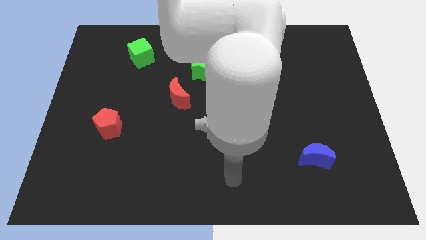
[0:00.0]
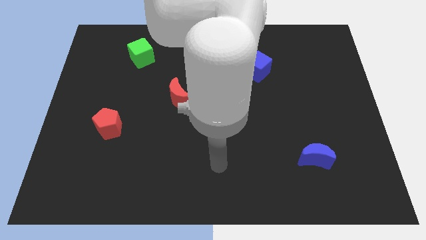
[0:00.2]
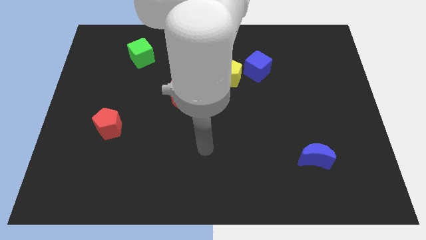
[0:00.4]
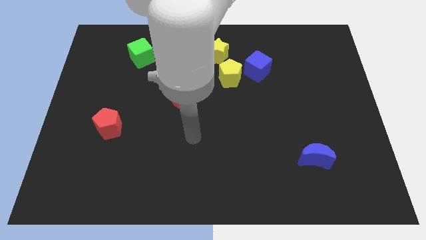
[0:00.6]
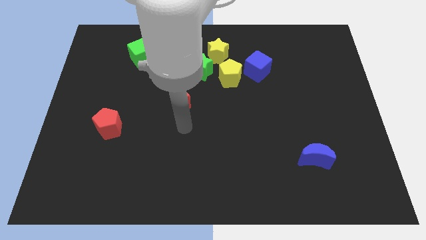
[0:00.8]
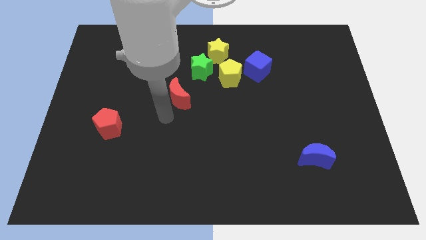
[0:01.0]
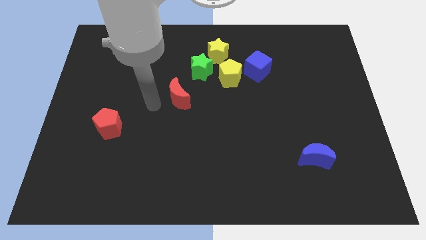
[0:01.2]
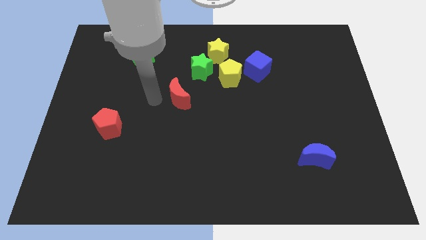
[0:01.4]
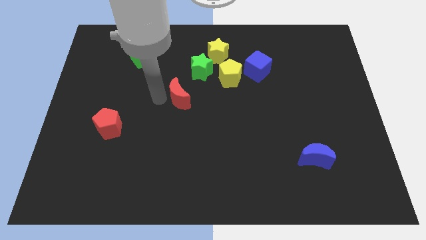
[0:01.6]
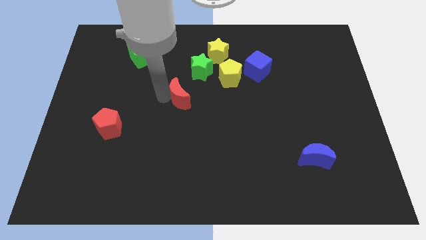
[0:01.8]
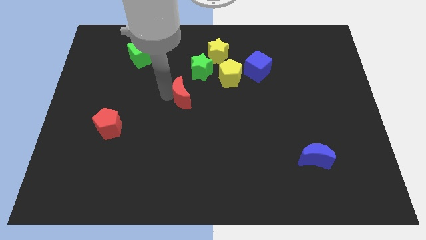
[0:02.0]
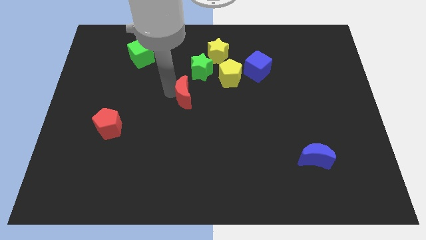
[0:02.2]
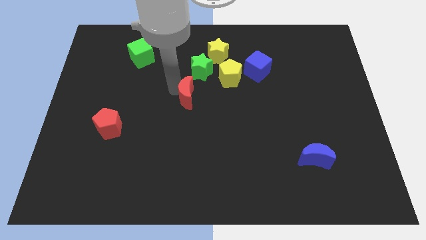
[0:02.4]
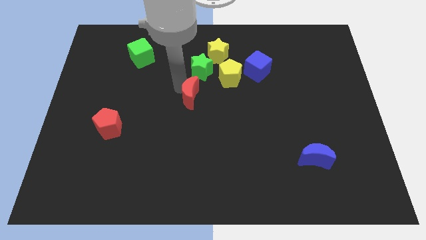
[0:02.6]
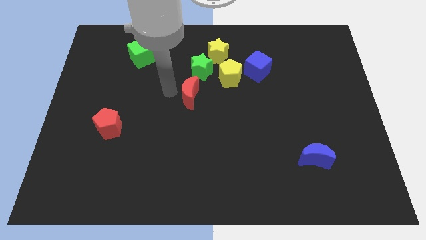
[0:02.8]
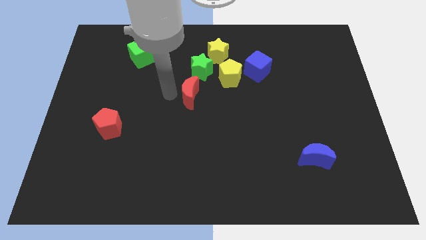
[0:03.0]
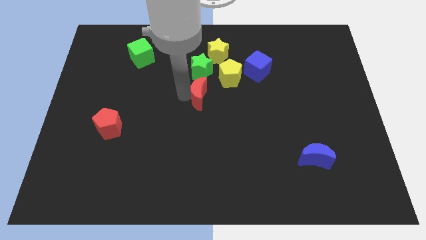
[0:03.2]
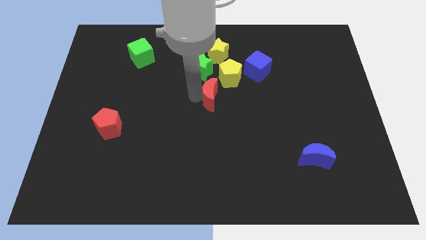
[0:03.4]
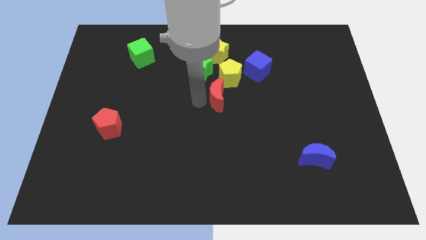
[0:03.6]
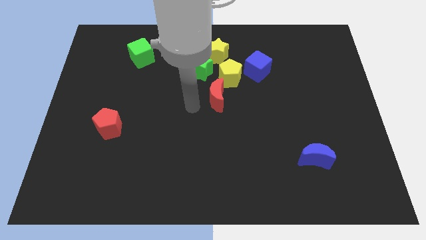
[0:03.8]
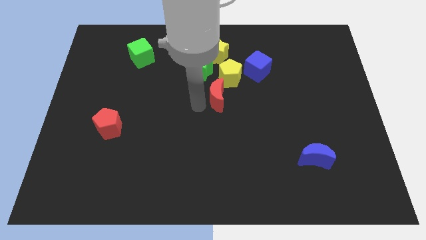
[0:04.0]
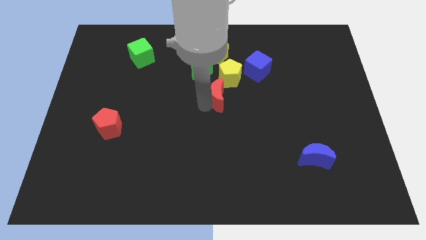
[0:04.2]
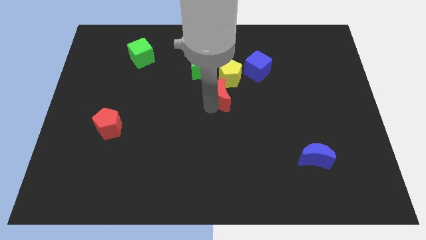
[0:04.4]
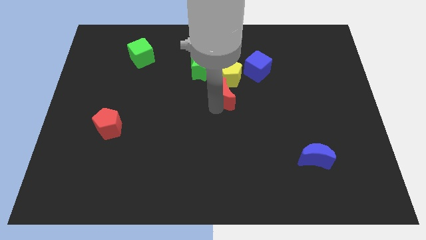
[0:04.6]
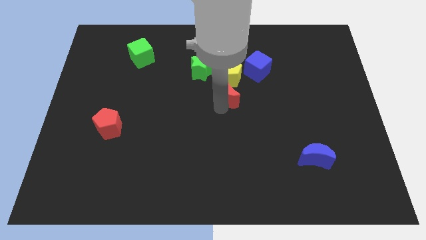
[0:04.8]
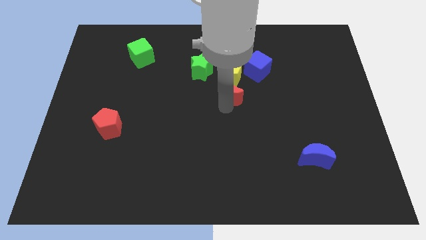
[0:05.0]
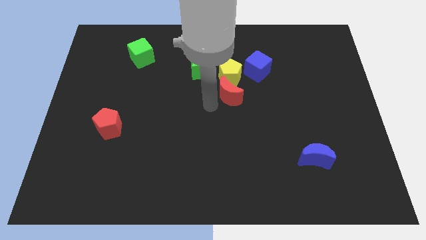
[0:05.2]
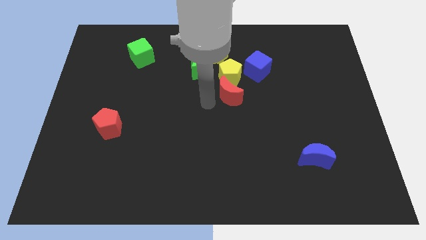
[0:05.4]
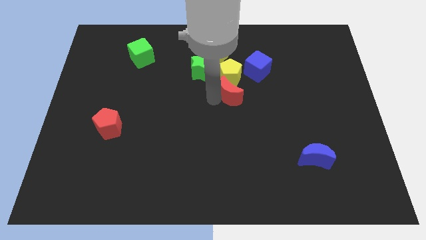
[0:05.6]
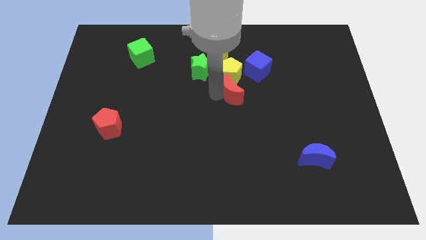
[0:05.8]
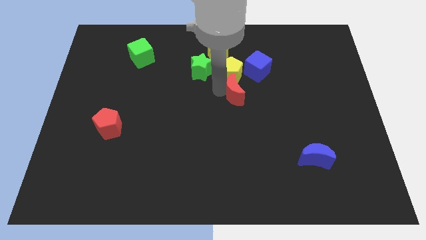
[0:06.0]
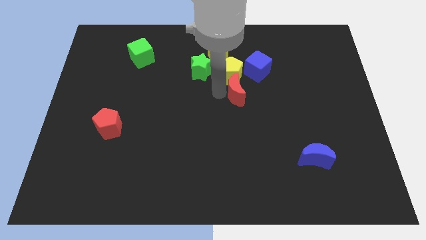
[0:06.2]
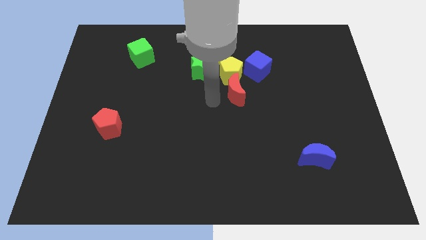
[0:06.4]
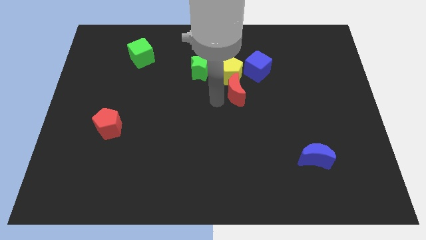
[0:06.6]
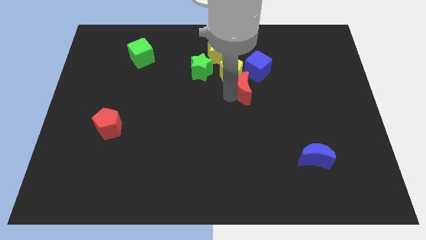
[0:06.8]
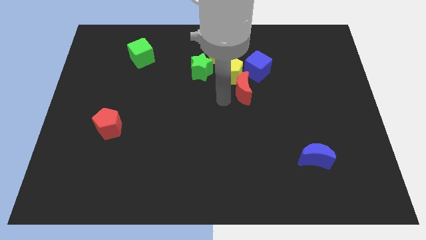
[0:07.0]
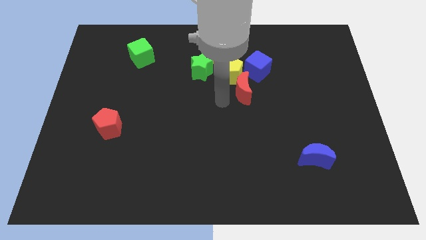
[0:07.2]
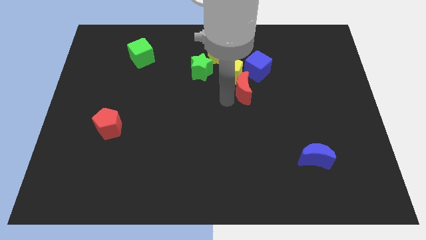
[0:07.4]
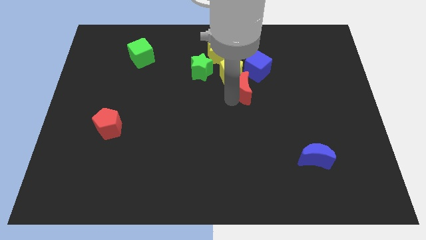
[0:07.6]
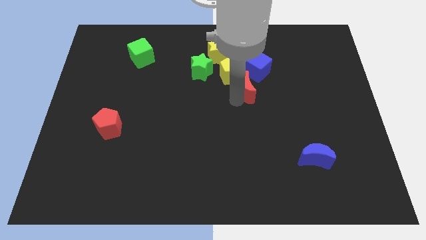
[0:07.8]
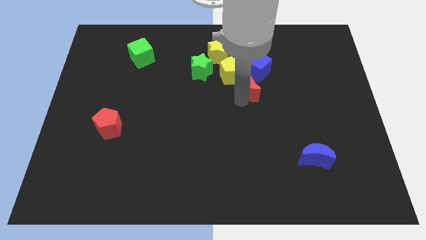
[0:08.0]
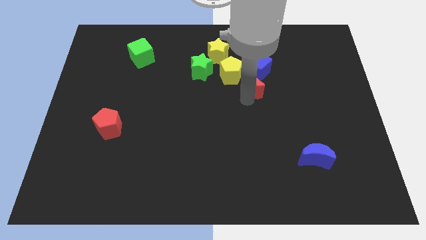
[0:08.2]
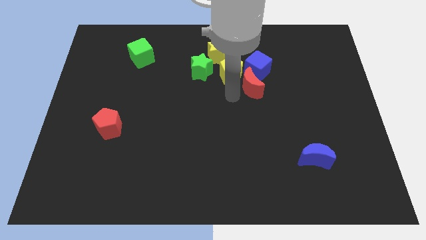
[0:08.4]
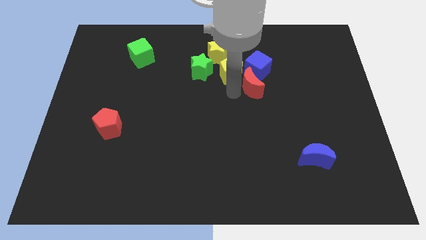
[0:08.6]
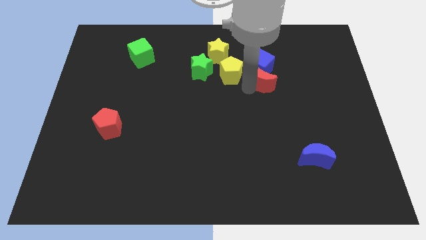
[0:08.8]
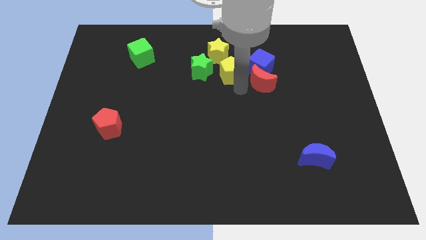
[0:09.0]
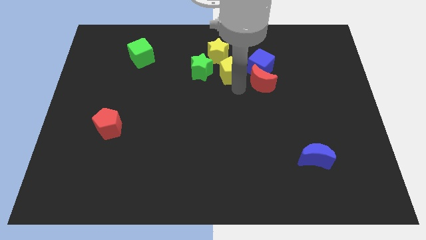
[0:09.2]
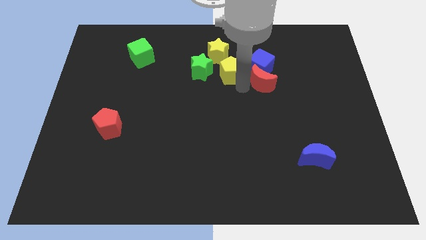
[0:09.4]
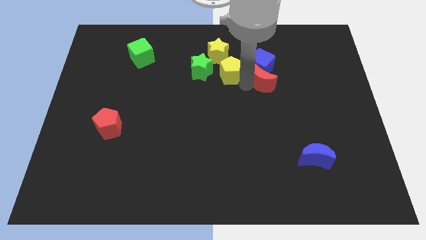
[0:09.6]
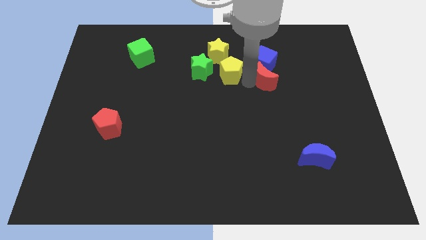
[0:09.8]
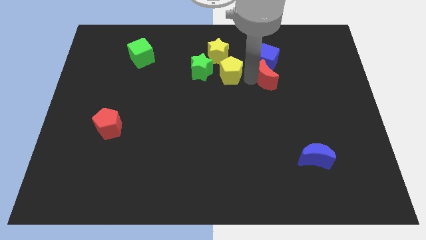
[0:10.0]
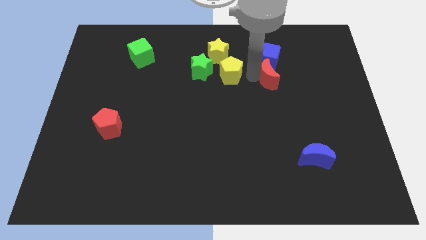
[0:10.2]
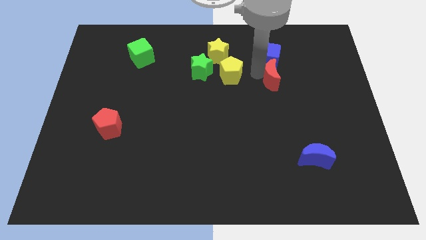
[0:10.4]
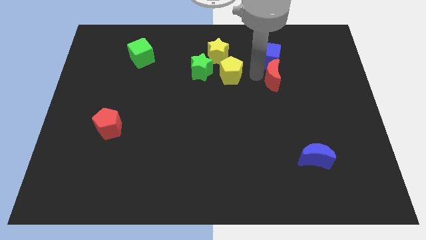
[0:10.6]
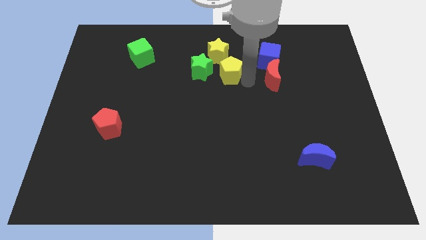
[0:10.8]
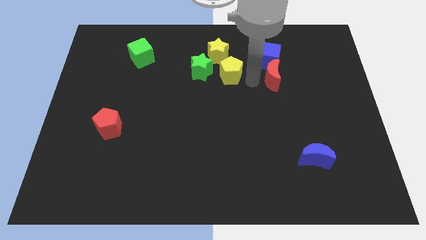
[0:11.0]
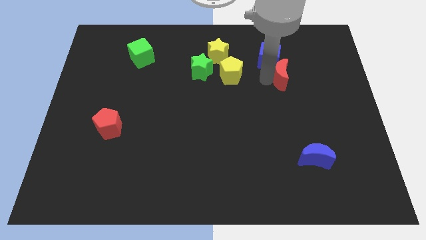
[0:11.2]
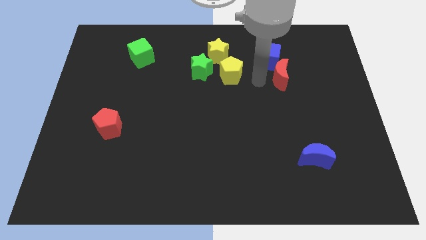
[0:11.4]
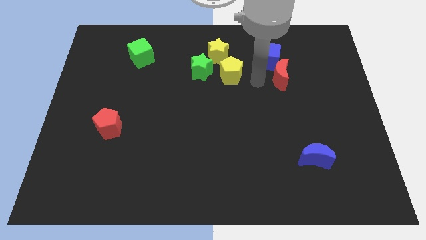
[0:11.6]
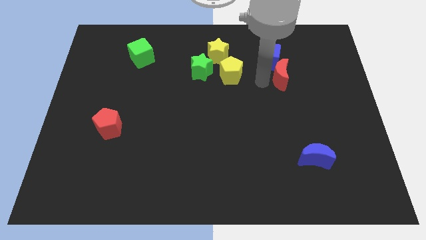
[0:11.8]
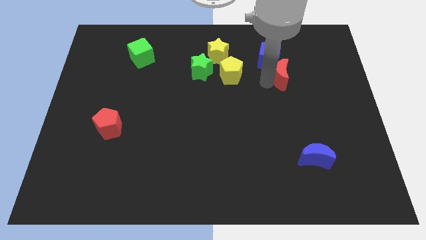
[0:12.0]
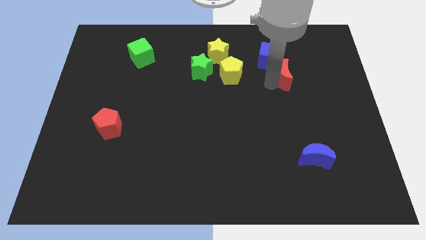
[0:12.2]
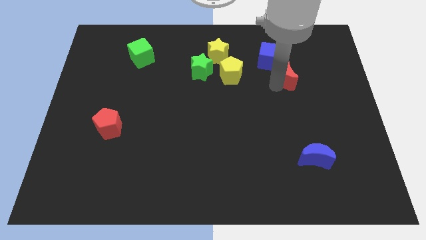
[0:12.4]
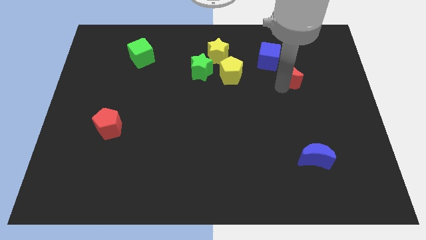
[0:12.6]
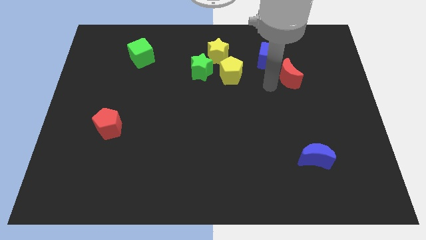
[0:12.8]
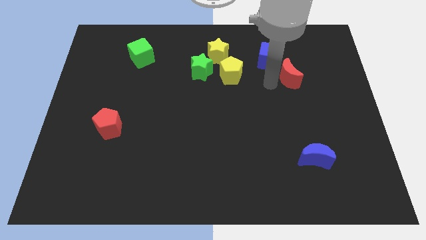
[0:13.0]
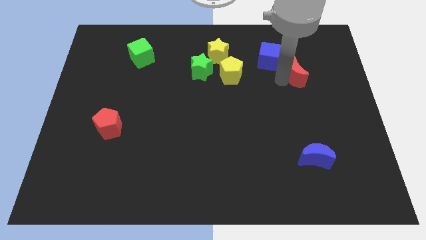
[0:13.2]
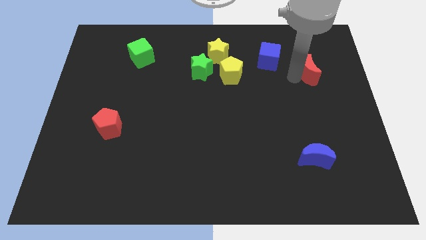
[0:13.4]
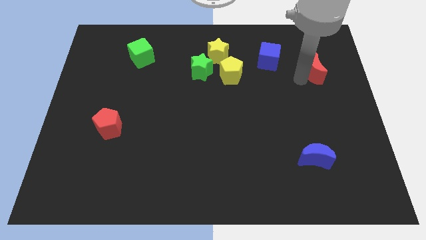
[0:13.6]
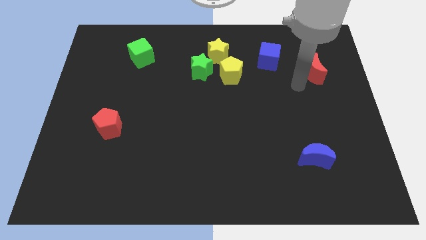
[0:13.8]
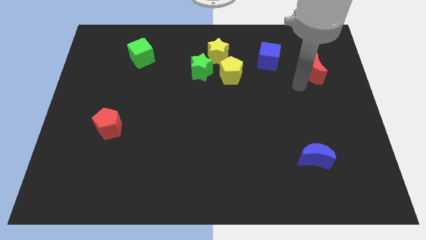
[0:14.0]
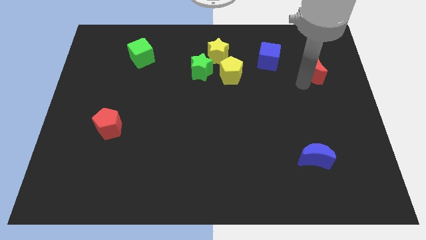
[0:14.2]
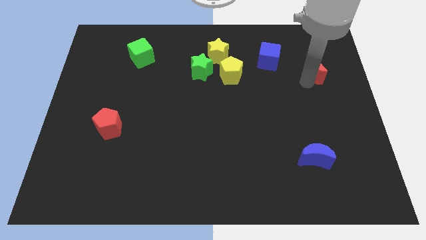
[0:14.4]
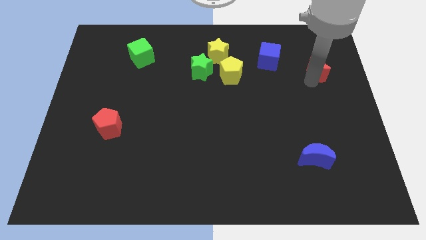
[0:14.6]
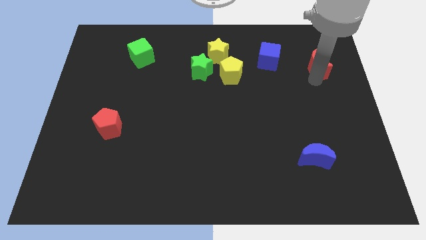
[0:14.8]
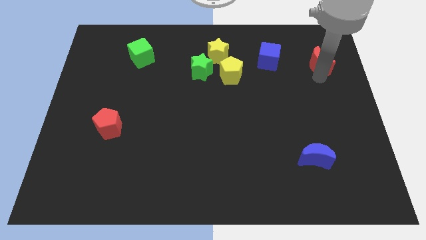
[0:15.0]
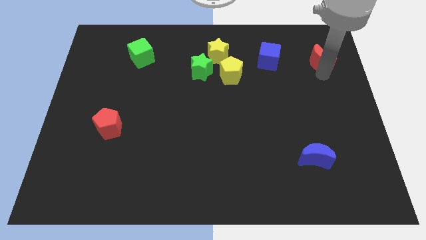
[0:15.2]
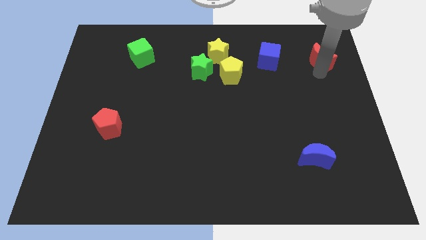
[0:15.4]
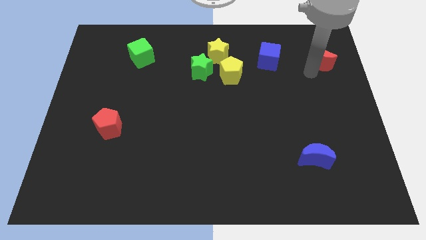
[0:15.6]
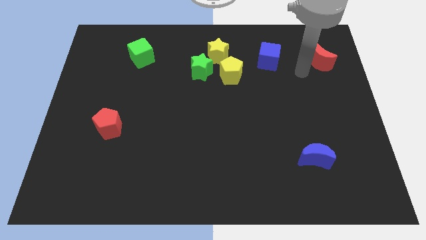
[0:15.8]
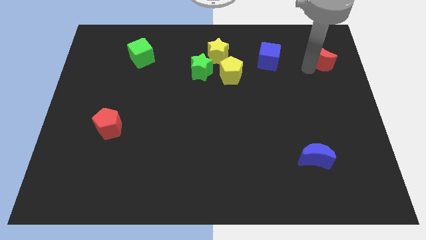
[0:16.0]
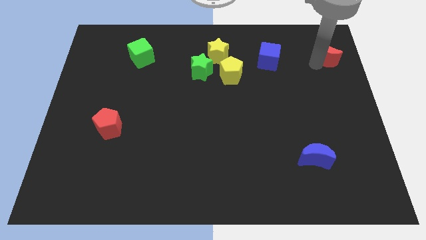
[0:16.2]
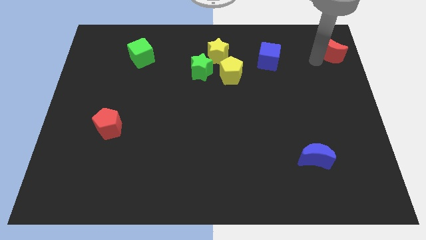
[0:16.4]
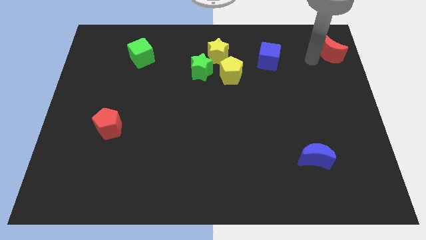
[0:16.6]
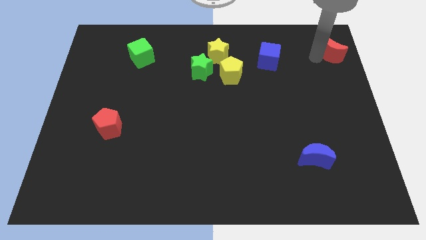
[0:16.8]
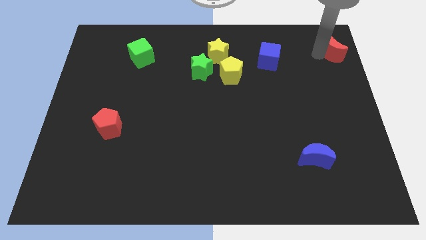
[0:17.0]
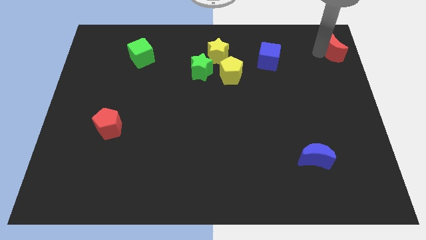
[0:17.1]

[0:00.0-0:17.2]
move the red moon to the top right corner
